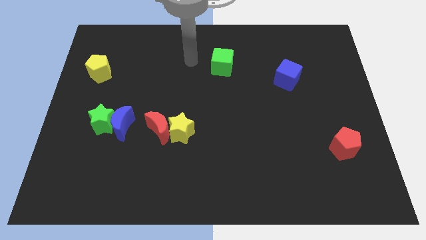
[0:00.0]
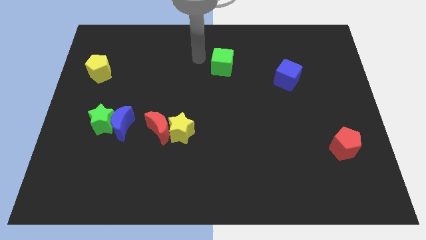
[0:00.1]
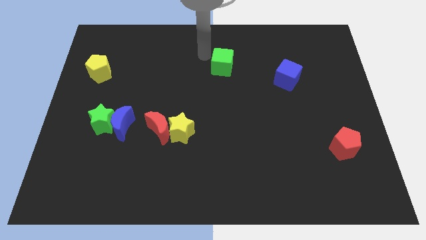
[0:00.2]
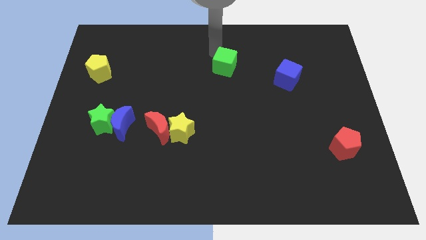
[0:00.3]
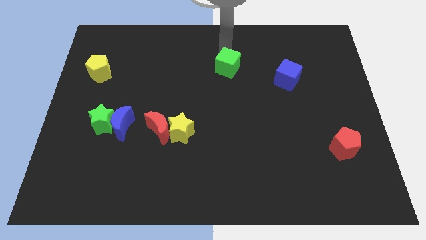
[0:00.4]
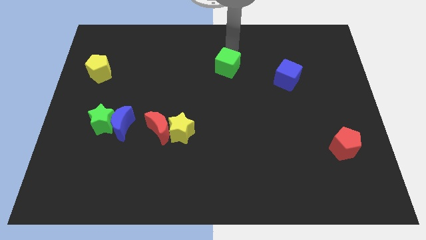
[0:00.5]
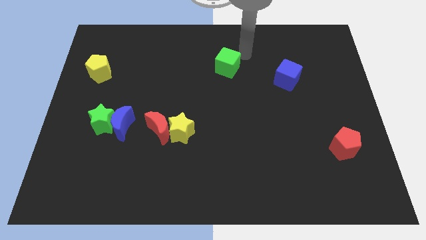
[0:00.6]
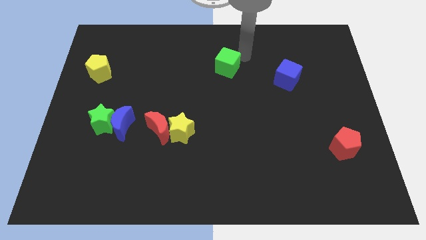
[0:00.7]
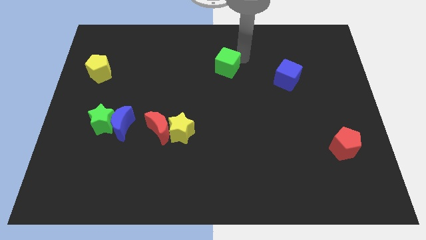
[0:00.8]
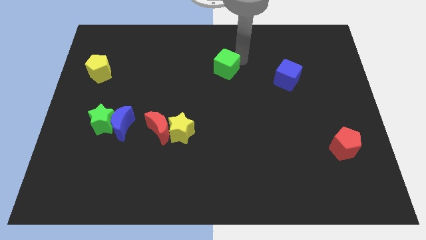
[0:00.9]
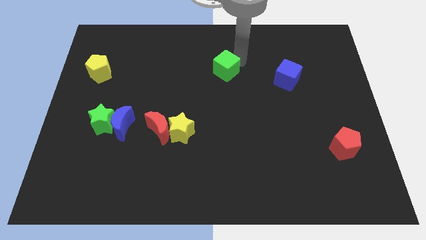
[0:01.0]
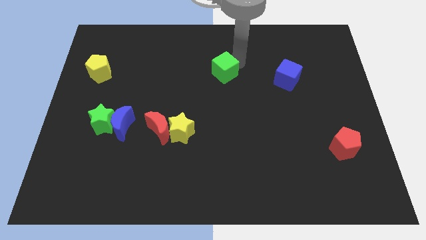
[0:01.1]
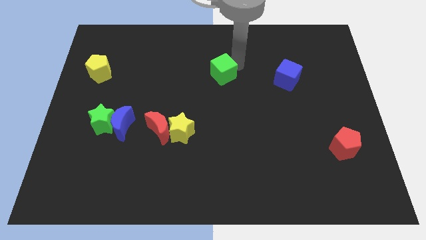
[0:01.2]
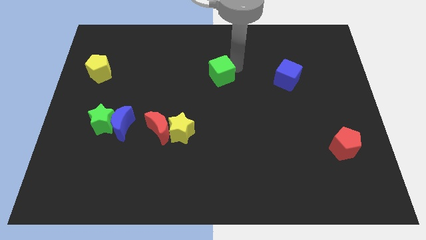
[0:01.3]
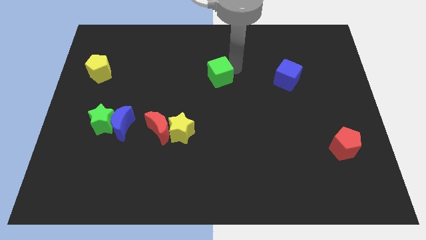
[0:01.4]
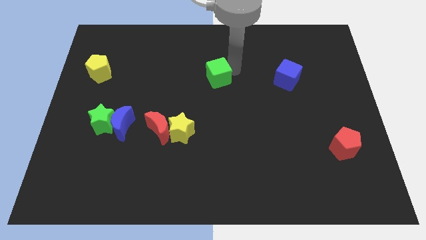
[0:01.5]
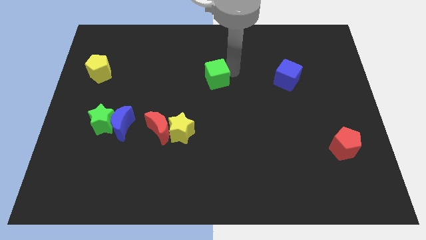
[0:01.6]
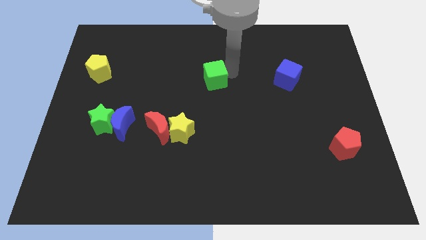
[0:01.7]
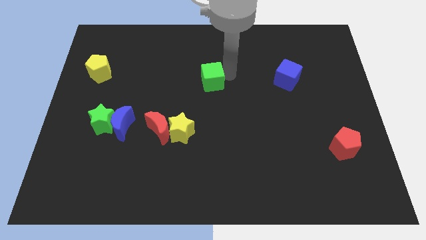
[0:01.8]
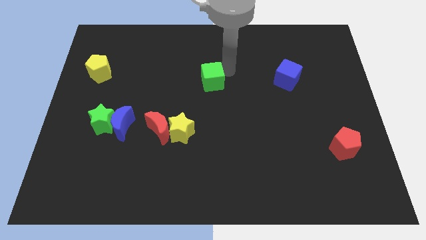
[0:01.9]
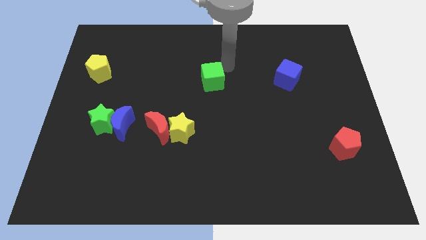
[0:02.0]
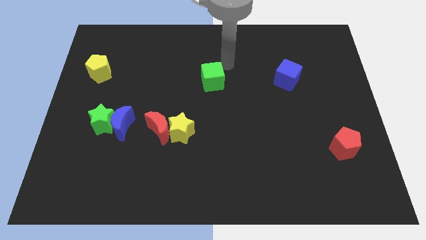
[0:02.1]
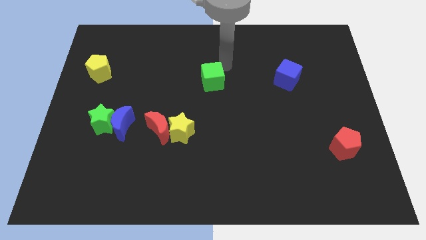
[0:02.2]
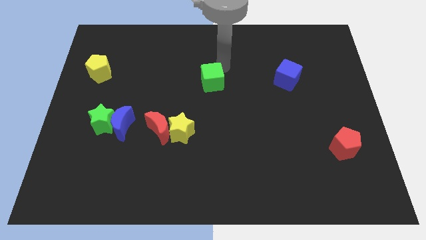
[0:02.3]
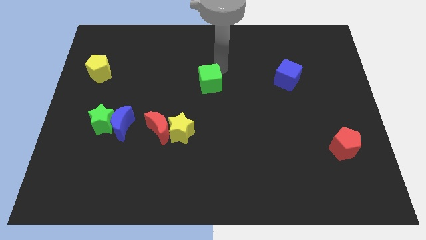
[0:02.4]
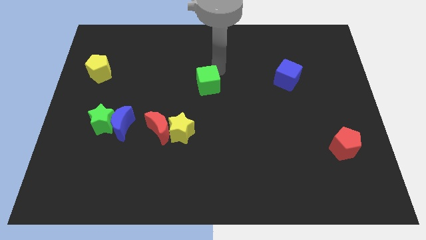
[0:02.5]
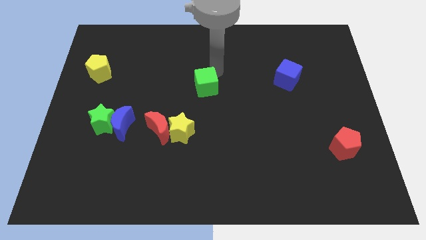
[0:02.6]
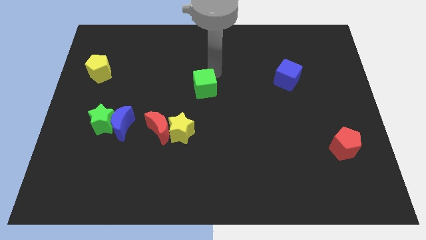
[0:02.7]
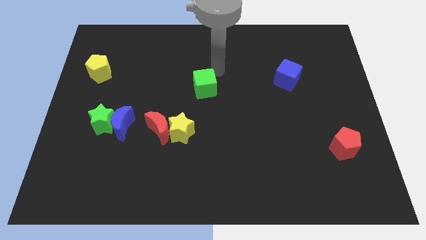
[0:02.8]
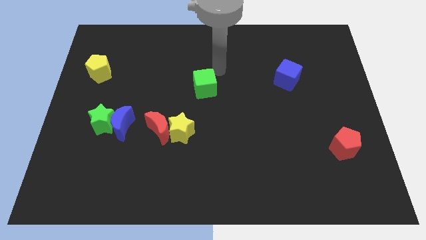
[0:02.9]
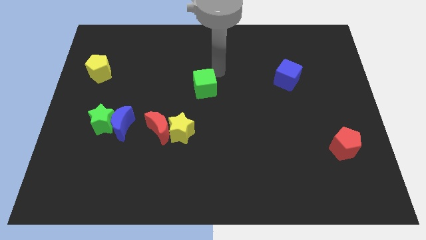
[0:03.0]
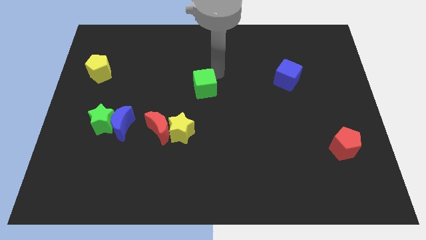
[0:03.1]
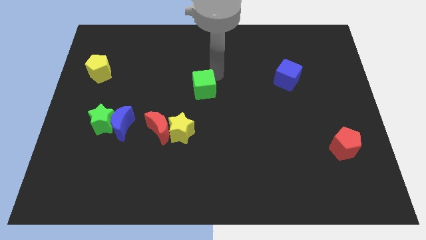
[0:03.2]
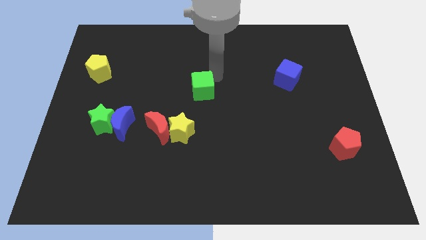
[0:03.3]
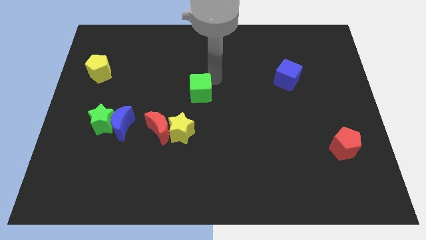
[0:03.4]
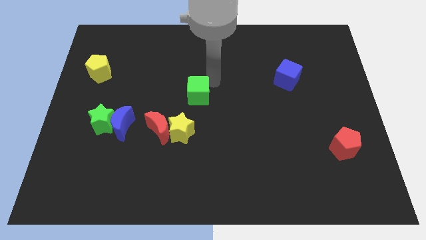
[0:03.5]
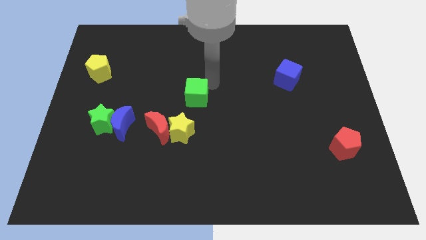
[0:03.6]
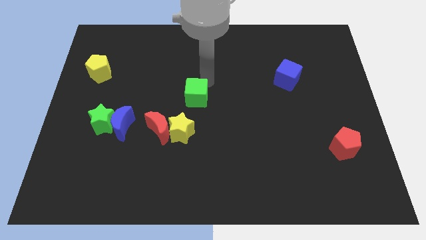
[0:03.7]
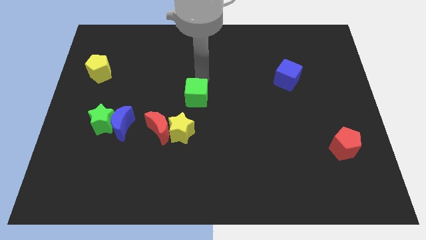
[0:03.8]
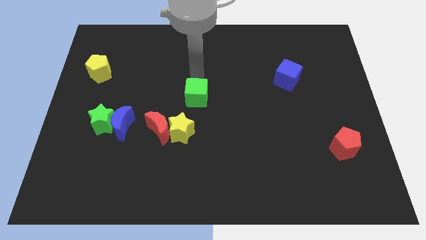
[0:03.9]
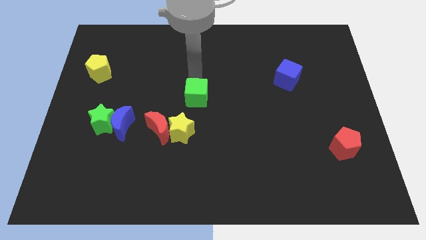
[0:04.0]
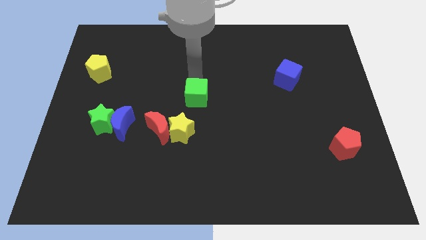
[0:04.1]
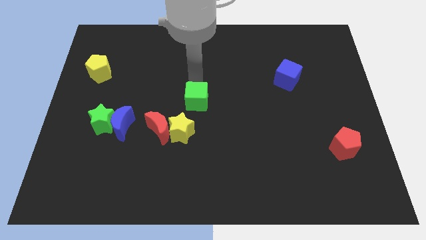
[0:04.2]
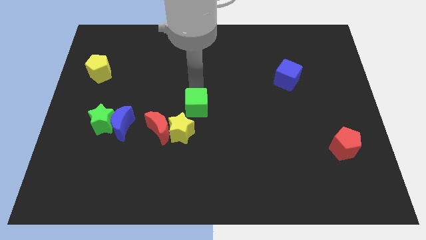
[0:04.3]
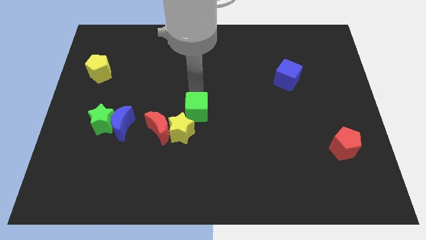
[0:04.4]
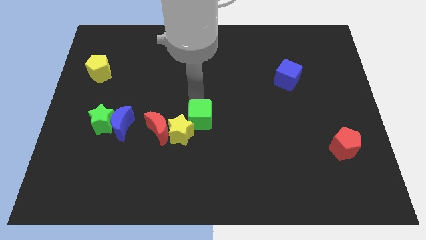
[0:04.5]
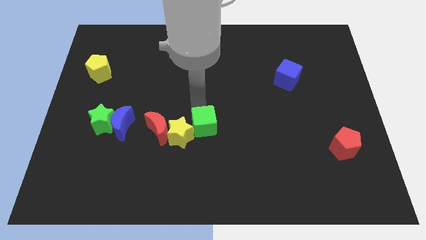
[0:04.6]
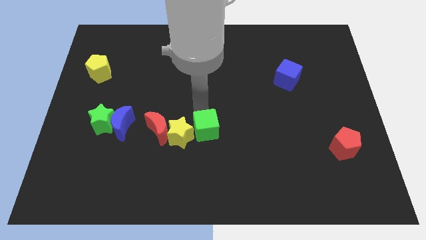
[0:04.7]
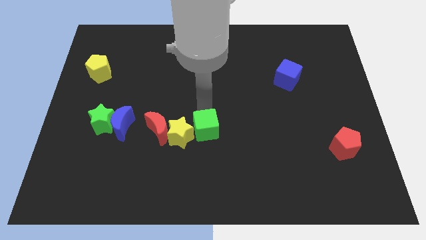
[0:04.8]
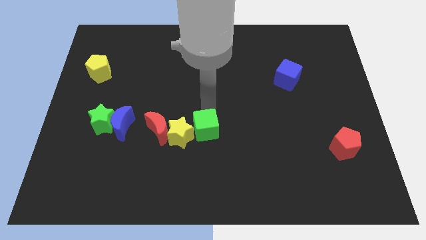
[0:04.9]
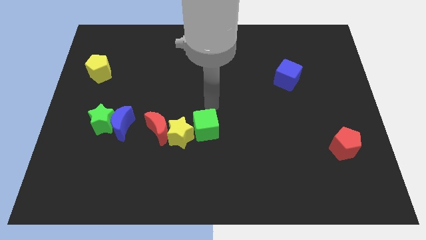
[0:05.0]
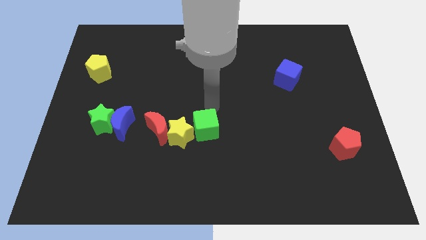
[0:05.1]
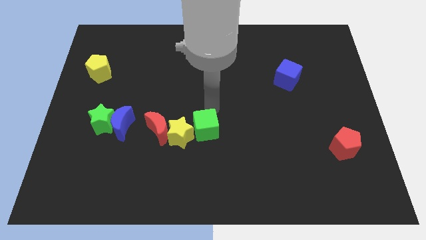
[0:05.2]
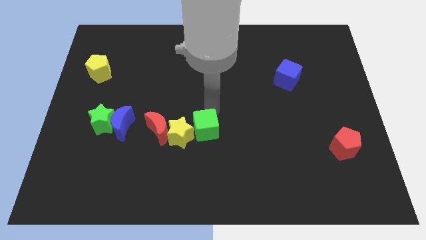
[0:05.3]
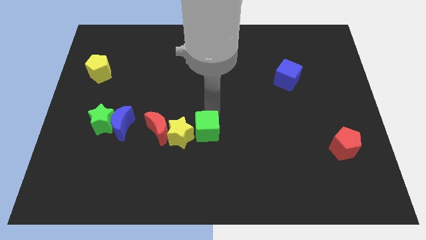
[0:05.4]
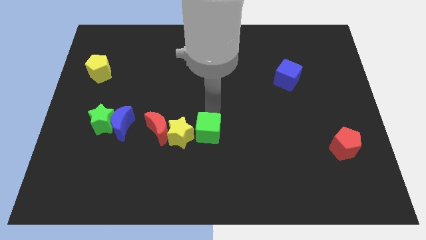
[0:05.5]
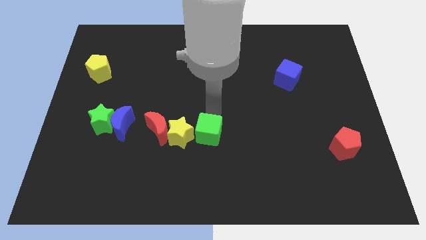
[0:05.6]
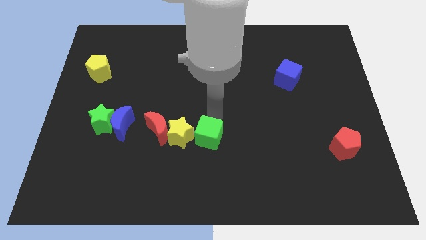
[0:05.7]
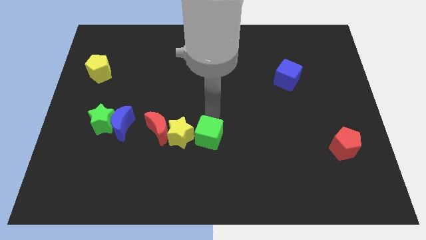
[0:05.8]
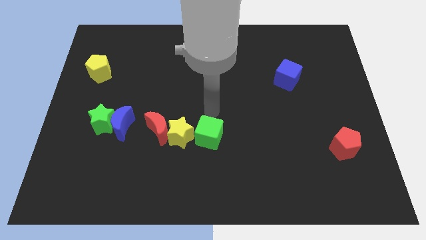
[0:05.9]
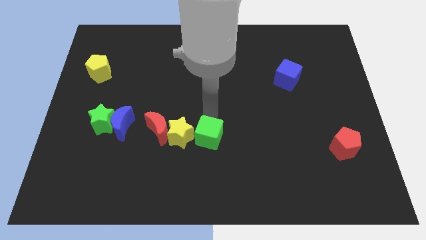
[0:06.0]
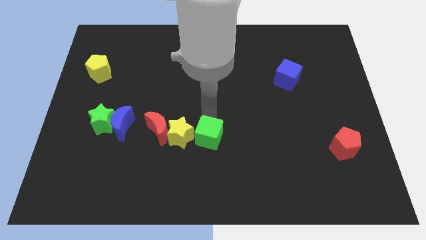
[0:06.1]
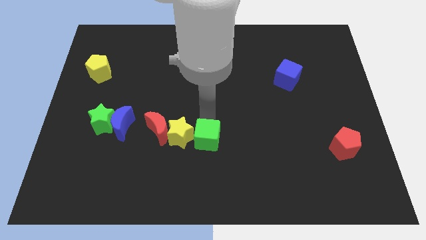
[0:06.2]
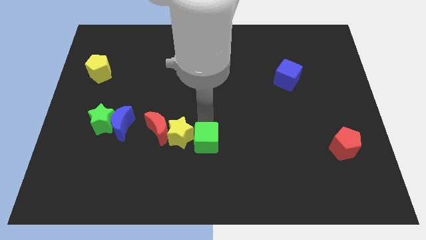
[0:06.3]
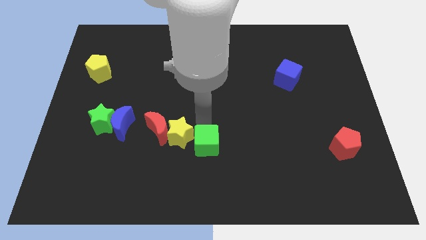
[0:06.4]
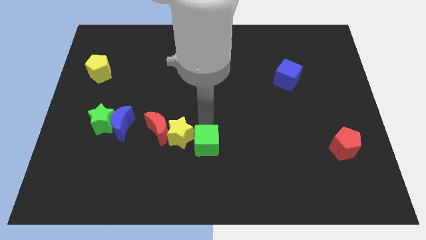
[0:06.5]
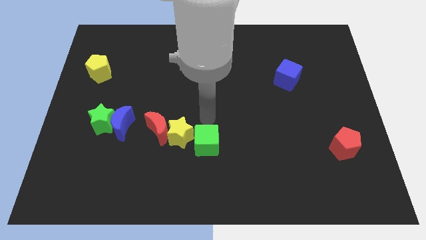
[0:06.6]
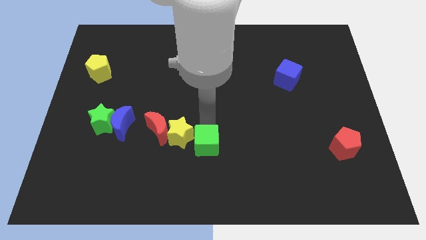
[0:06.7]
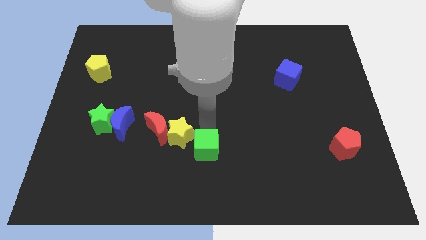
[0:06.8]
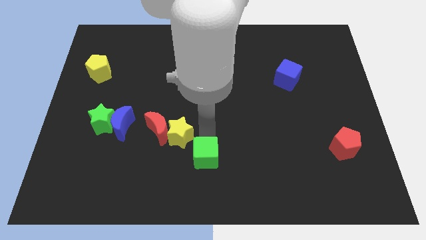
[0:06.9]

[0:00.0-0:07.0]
move the green cube to the bottom side
